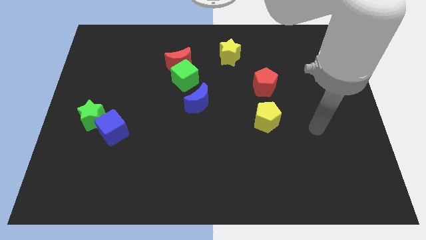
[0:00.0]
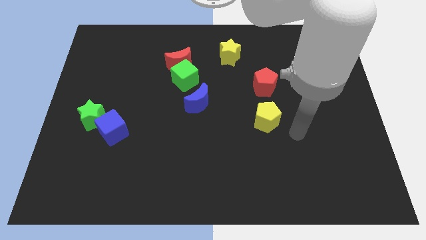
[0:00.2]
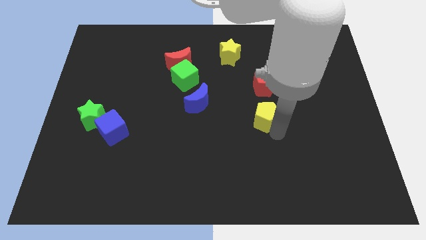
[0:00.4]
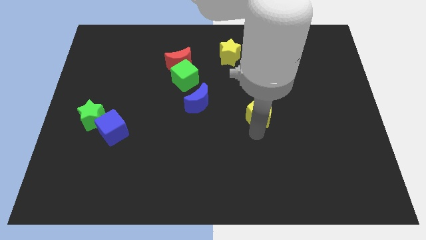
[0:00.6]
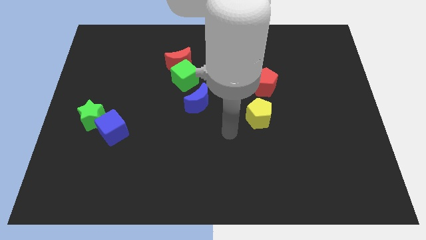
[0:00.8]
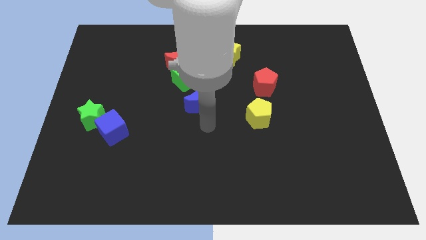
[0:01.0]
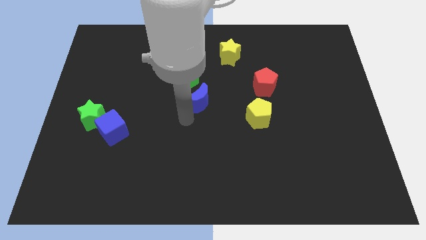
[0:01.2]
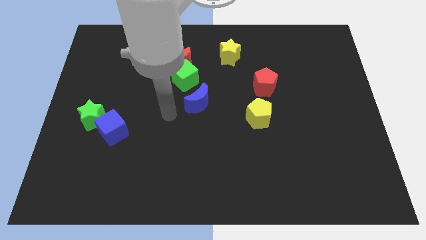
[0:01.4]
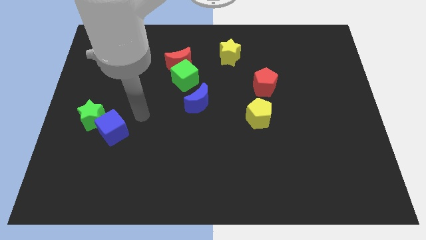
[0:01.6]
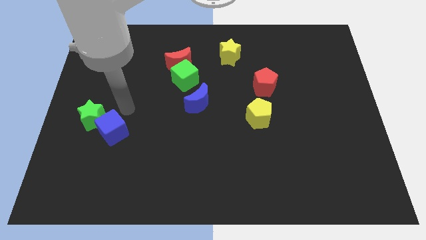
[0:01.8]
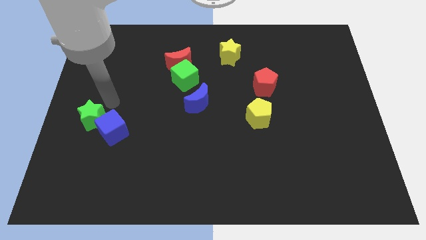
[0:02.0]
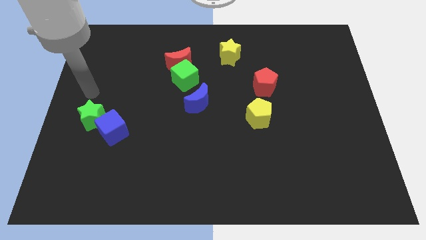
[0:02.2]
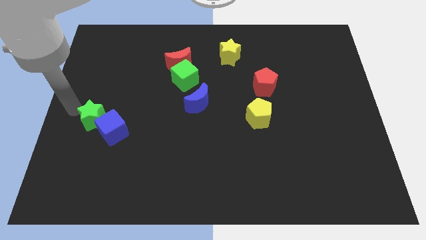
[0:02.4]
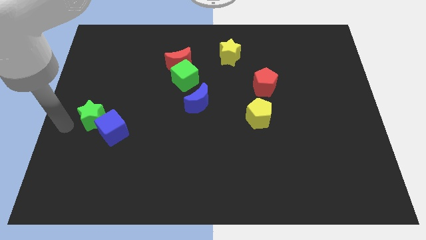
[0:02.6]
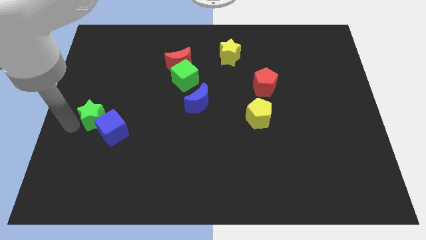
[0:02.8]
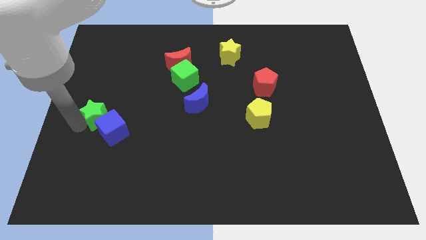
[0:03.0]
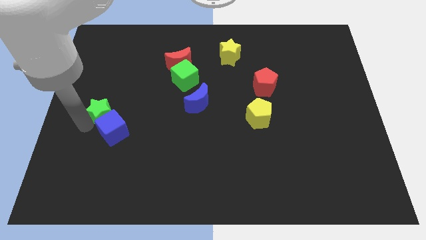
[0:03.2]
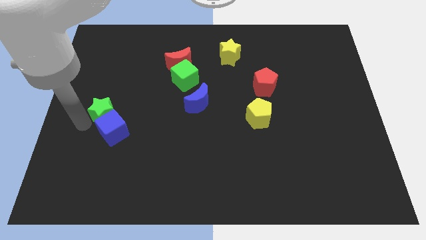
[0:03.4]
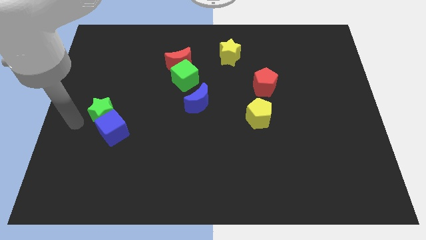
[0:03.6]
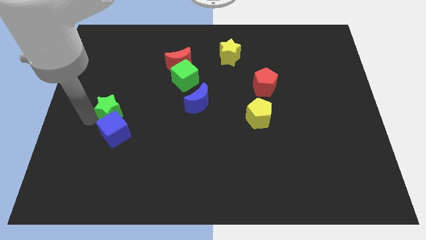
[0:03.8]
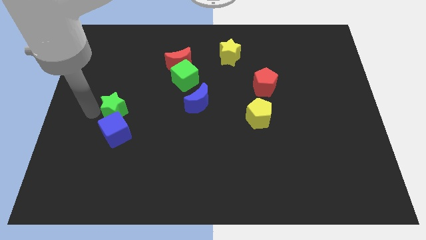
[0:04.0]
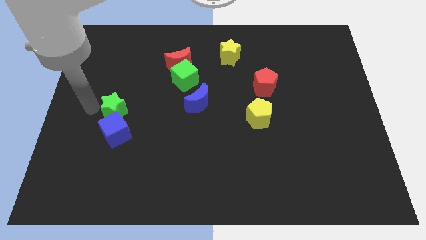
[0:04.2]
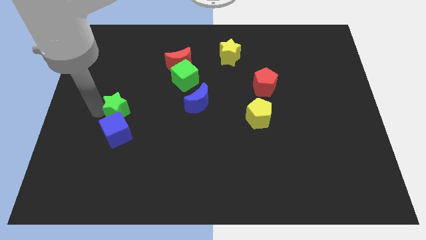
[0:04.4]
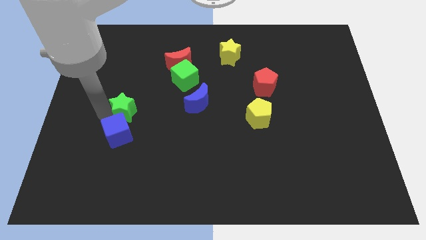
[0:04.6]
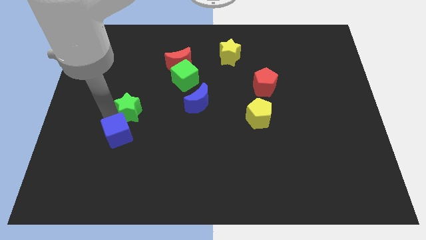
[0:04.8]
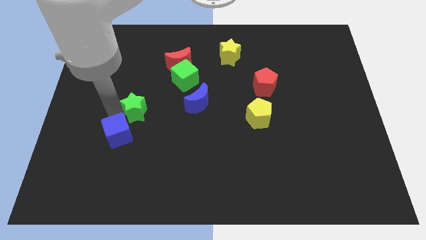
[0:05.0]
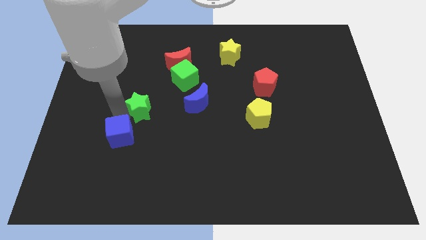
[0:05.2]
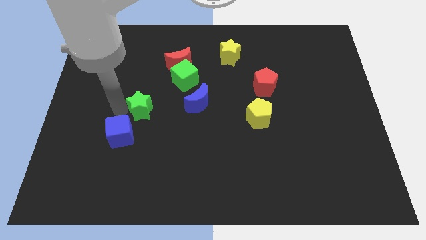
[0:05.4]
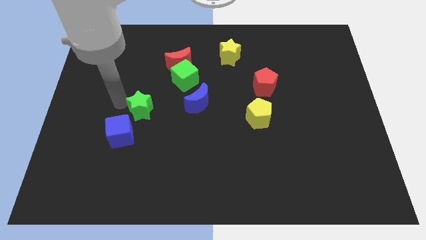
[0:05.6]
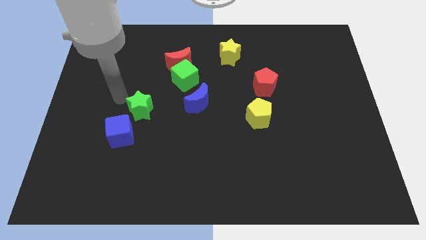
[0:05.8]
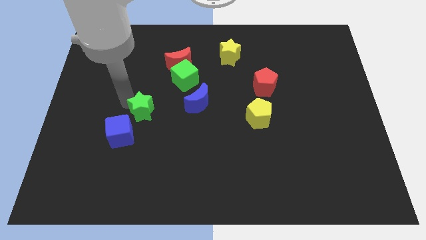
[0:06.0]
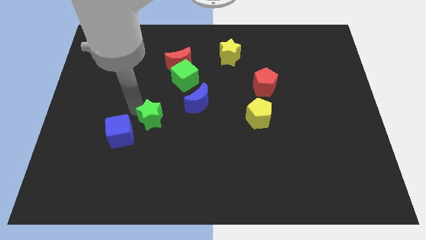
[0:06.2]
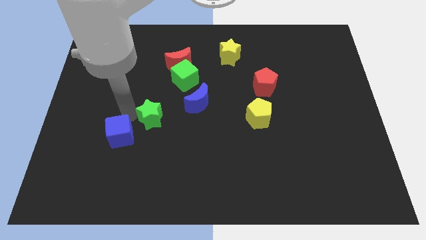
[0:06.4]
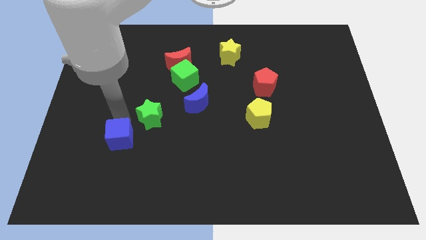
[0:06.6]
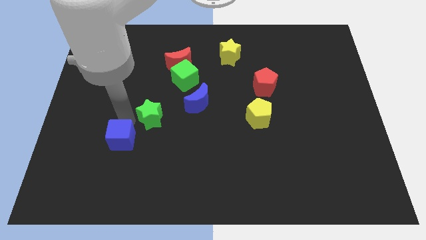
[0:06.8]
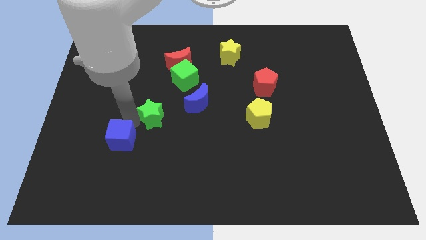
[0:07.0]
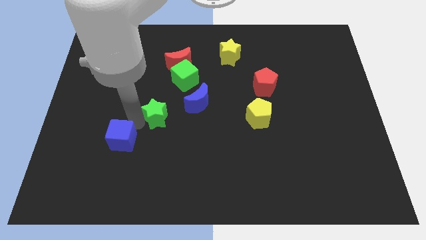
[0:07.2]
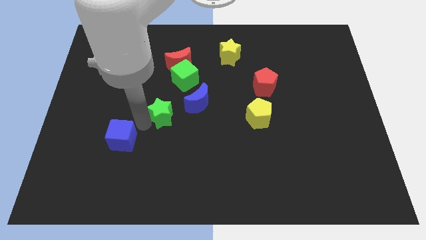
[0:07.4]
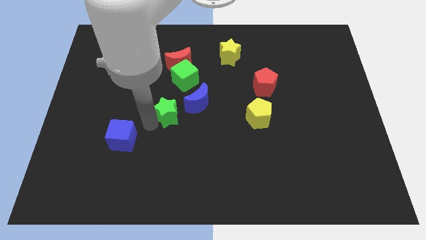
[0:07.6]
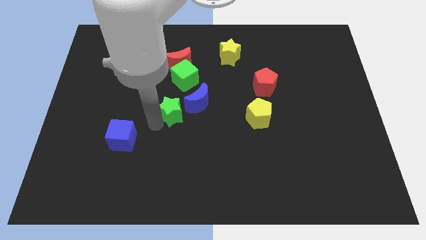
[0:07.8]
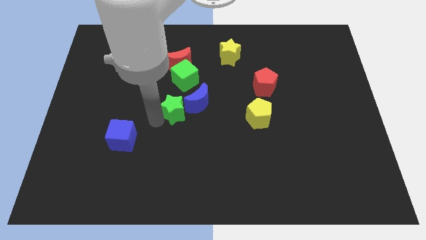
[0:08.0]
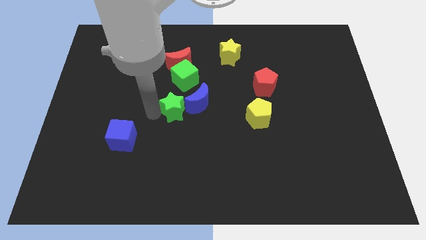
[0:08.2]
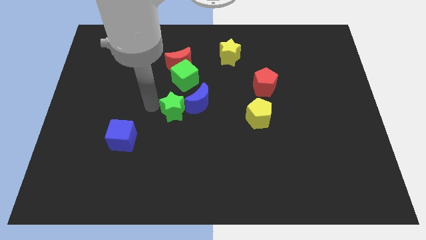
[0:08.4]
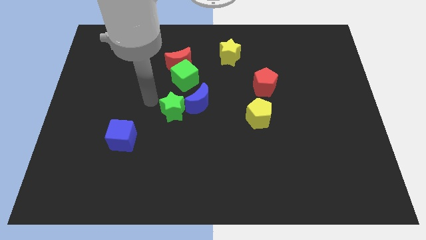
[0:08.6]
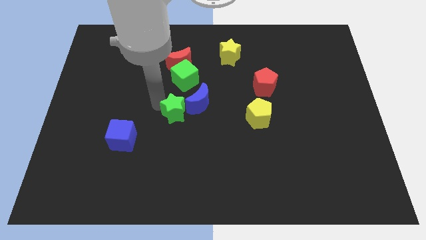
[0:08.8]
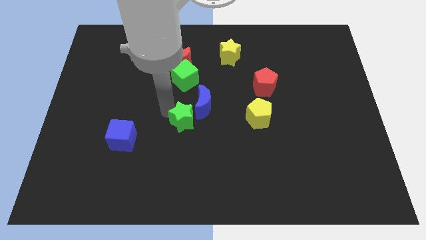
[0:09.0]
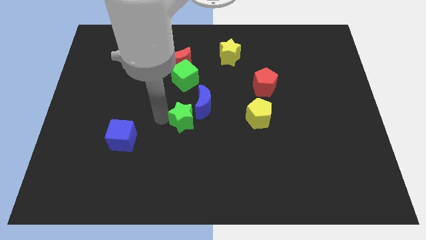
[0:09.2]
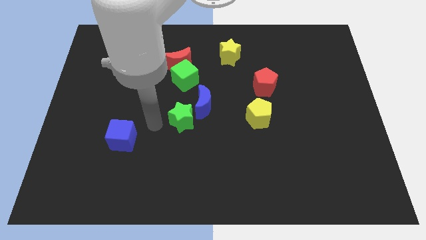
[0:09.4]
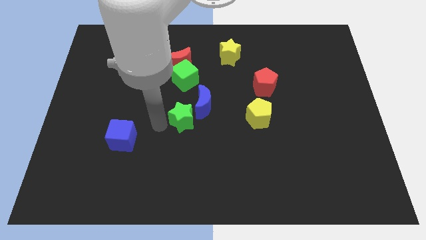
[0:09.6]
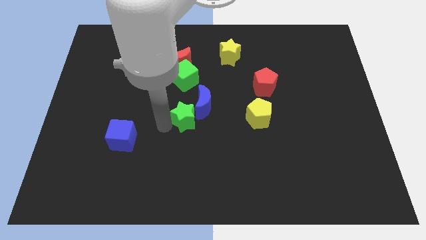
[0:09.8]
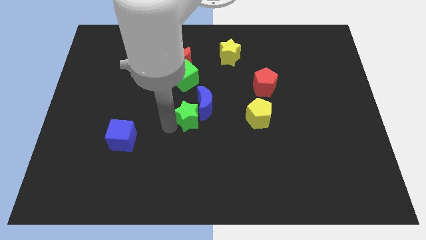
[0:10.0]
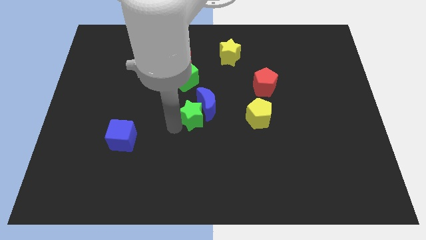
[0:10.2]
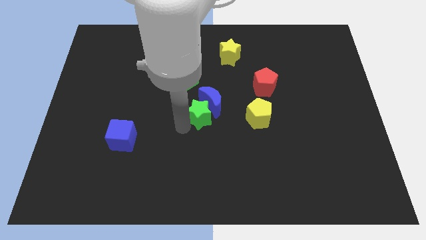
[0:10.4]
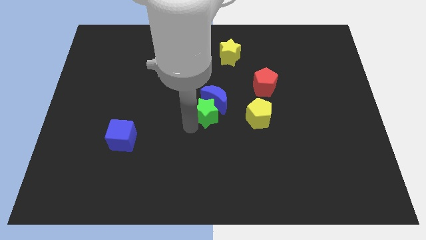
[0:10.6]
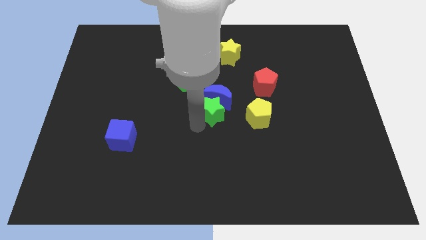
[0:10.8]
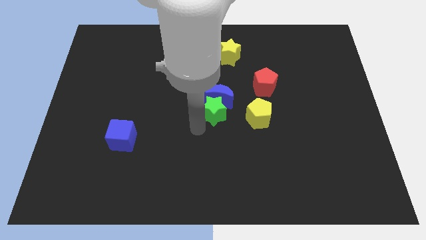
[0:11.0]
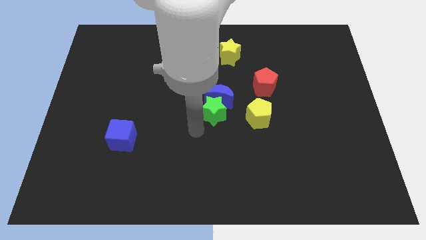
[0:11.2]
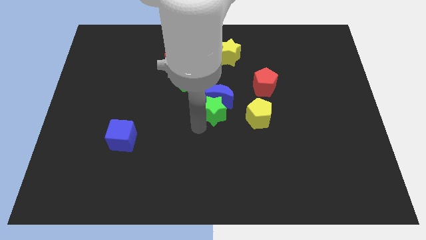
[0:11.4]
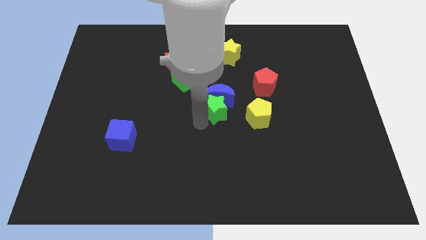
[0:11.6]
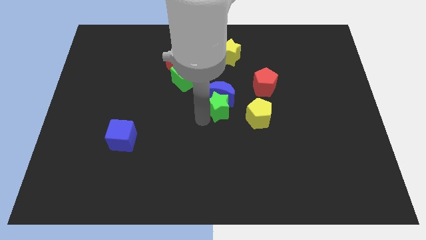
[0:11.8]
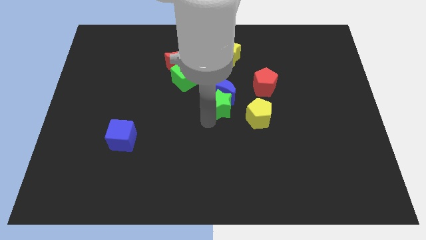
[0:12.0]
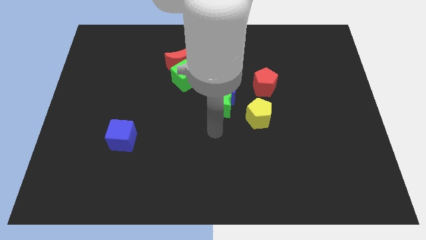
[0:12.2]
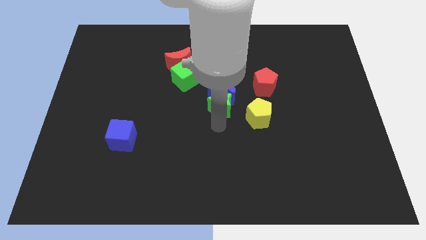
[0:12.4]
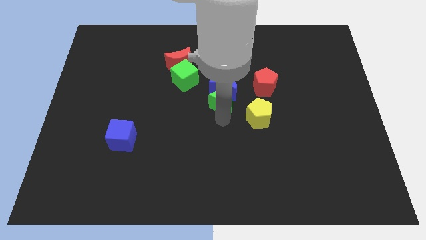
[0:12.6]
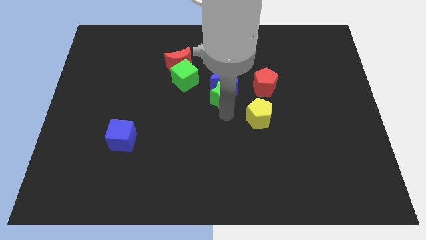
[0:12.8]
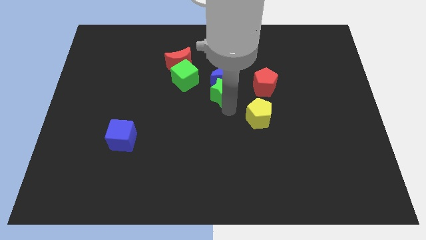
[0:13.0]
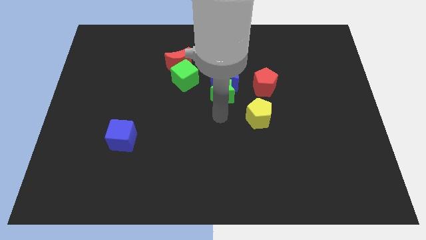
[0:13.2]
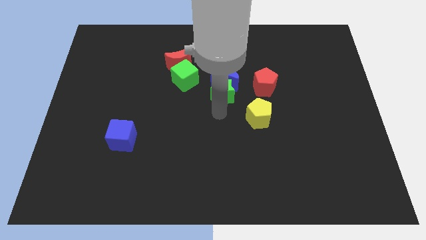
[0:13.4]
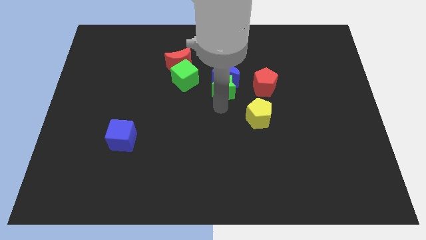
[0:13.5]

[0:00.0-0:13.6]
put the green star to the right of the green cube
